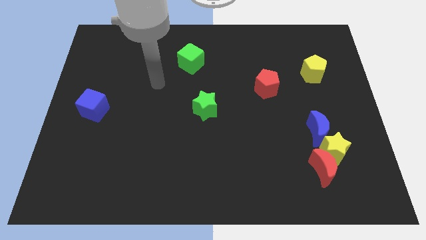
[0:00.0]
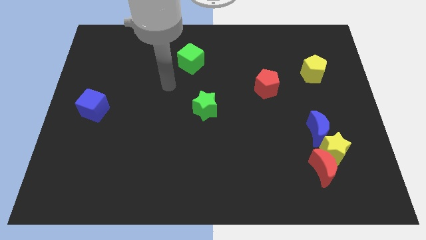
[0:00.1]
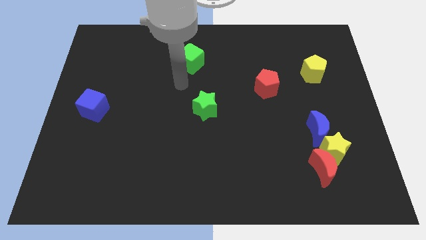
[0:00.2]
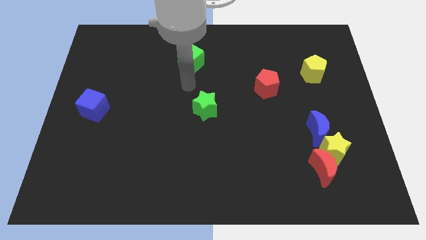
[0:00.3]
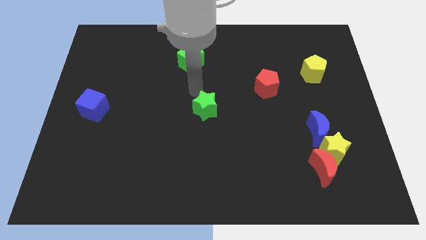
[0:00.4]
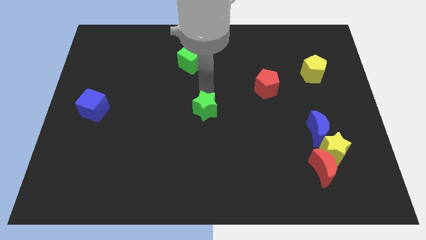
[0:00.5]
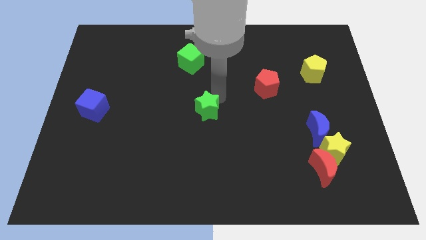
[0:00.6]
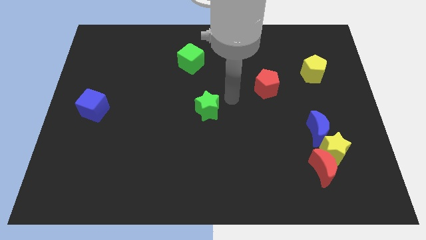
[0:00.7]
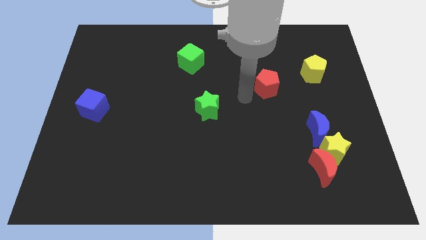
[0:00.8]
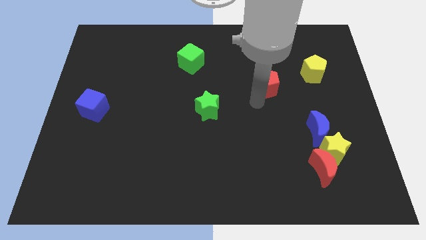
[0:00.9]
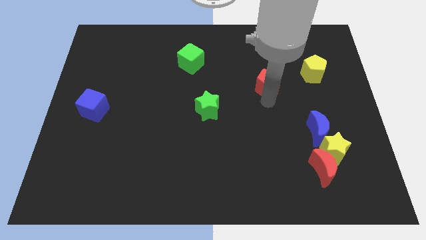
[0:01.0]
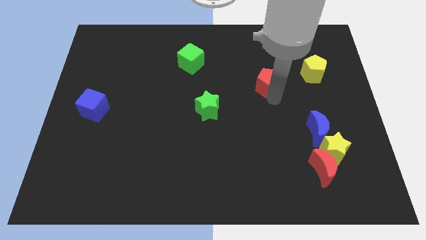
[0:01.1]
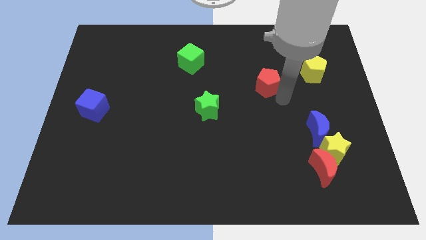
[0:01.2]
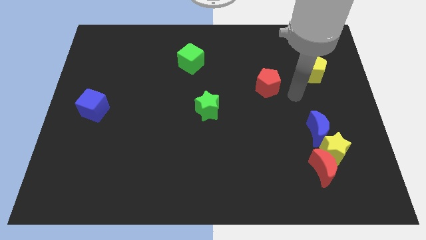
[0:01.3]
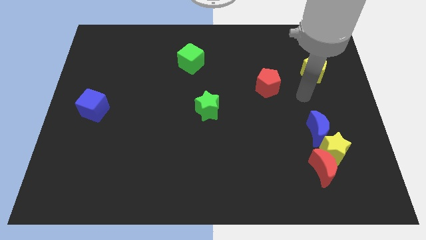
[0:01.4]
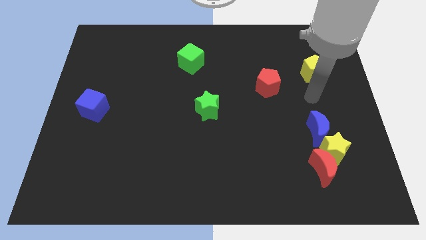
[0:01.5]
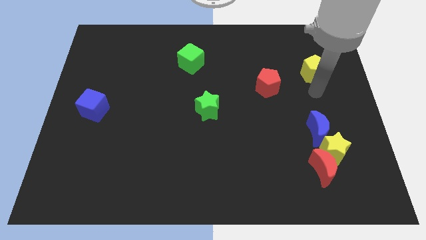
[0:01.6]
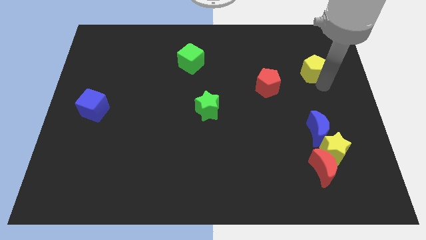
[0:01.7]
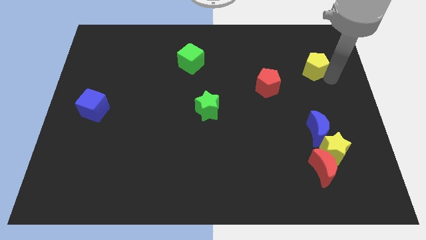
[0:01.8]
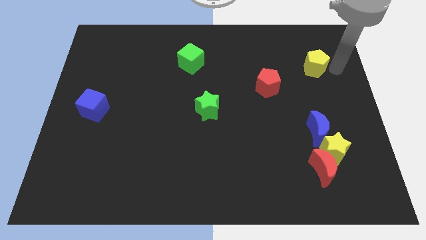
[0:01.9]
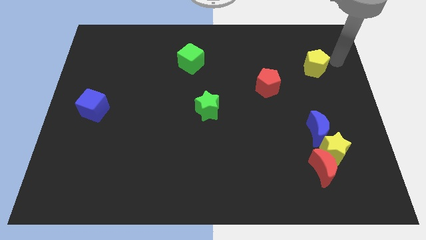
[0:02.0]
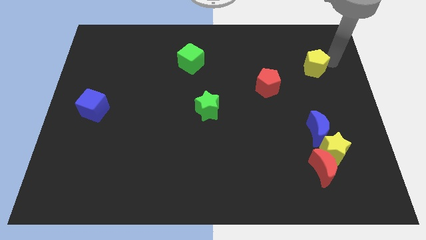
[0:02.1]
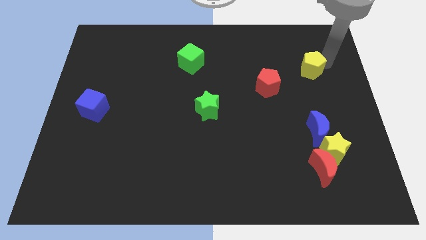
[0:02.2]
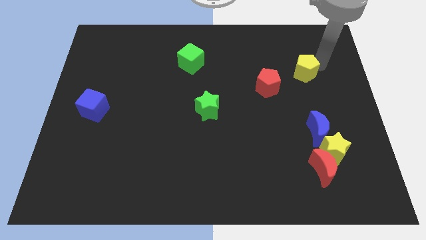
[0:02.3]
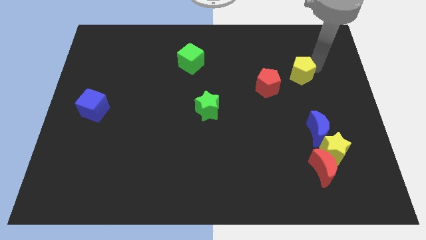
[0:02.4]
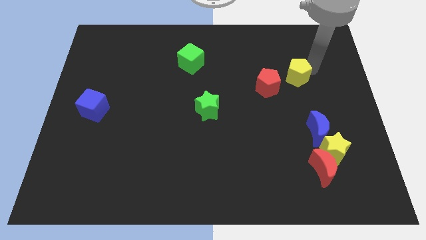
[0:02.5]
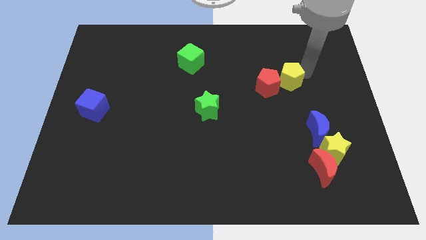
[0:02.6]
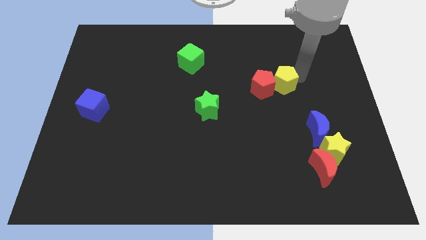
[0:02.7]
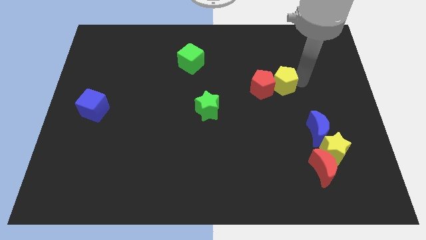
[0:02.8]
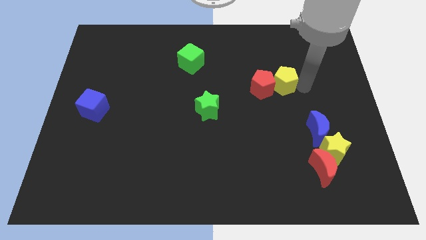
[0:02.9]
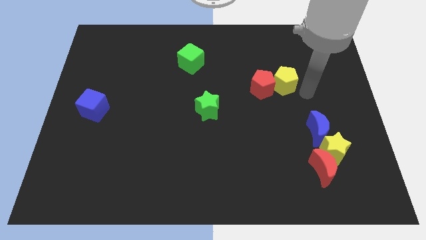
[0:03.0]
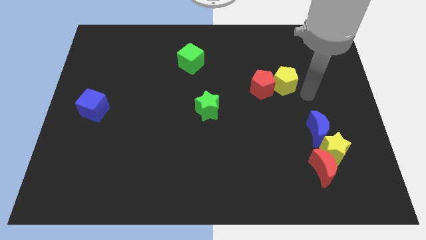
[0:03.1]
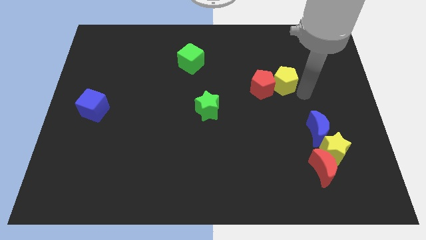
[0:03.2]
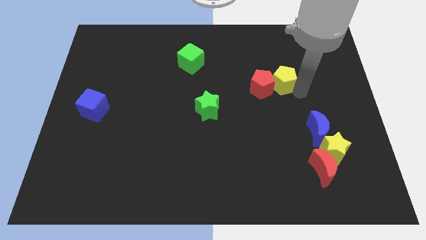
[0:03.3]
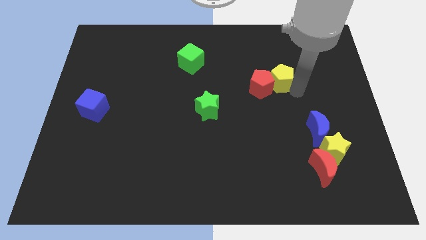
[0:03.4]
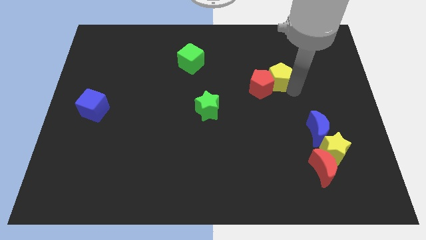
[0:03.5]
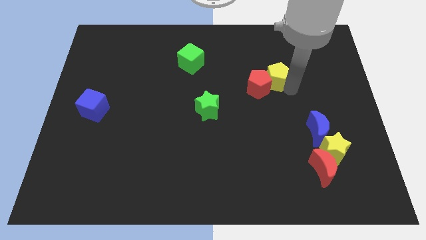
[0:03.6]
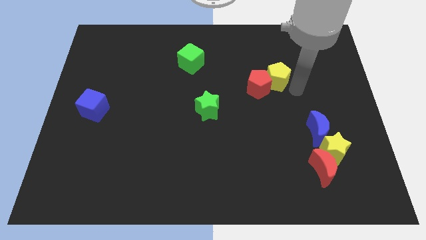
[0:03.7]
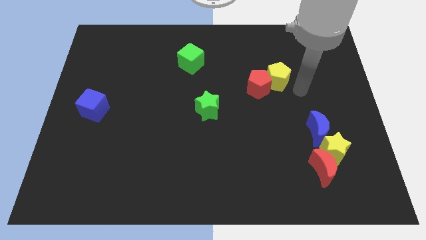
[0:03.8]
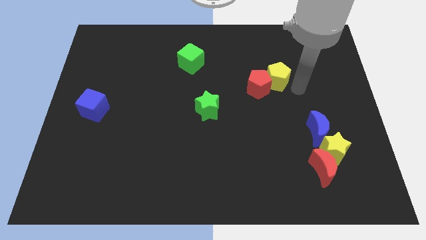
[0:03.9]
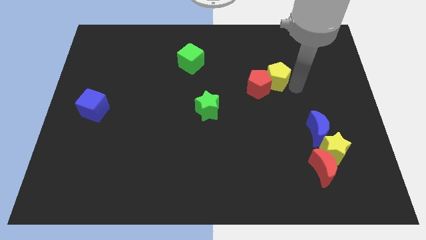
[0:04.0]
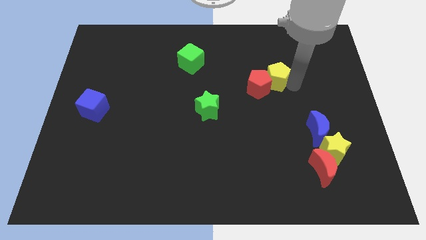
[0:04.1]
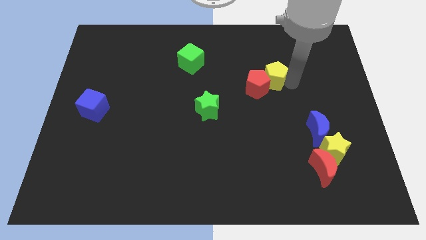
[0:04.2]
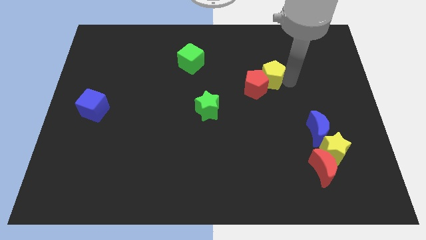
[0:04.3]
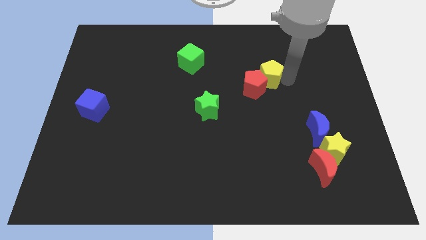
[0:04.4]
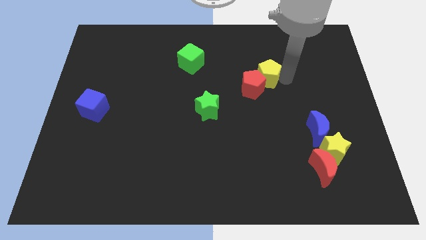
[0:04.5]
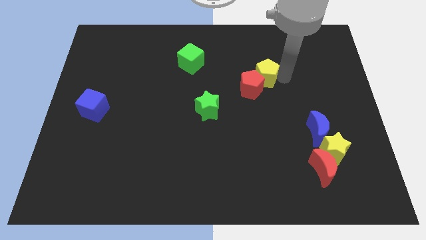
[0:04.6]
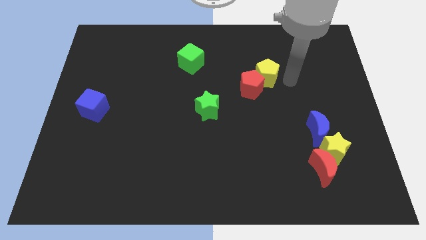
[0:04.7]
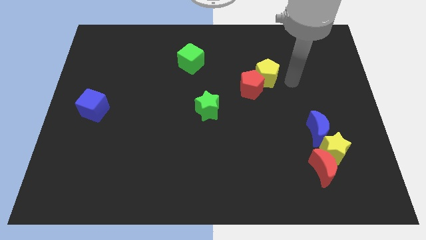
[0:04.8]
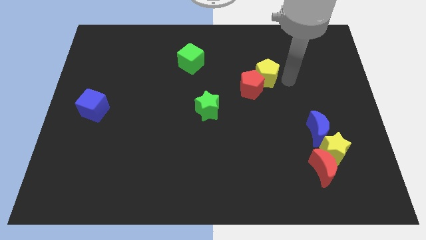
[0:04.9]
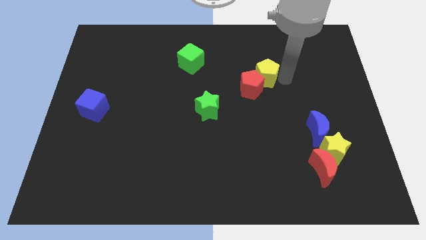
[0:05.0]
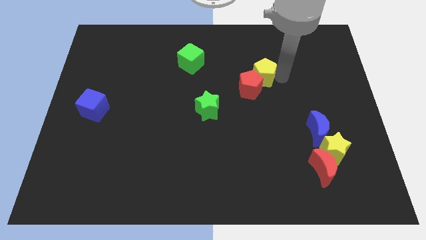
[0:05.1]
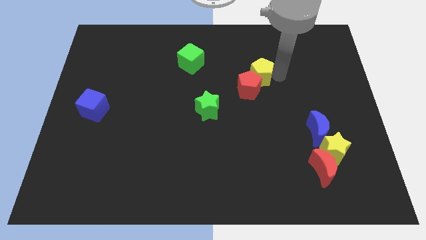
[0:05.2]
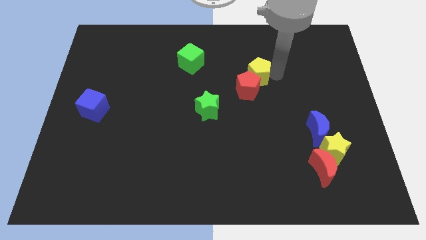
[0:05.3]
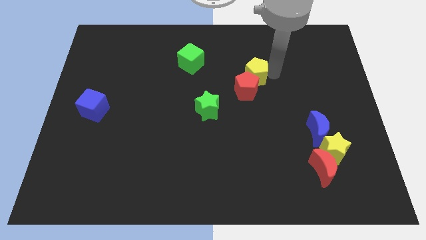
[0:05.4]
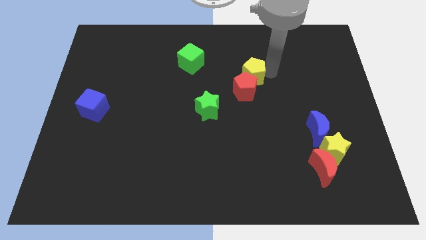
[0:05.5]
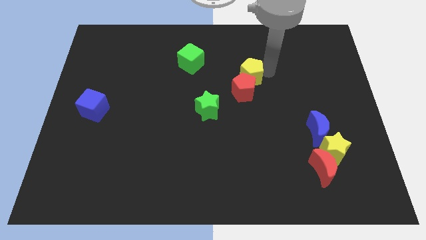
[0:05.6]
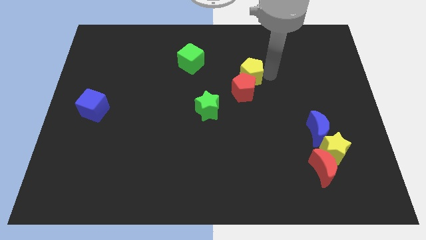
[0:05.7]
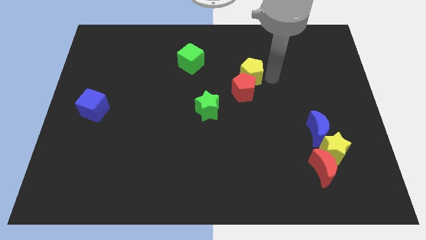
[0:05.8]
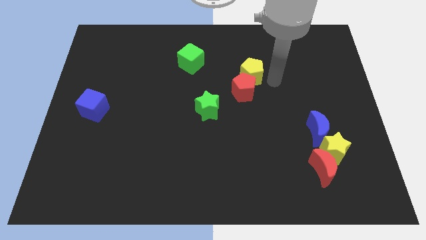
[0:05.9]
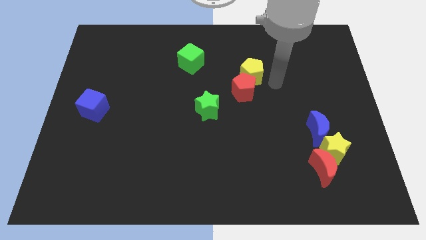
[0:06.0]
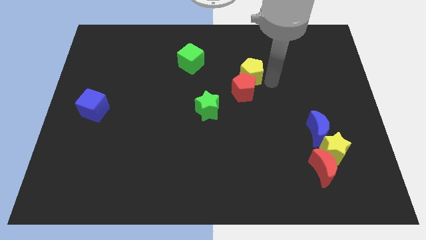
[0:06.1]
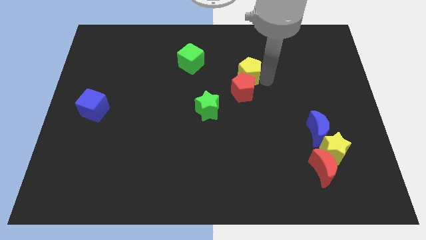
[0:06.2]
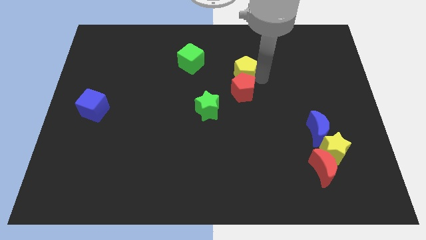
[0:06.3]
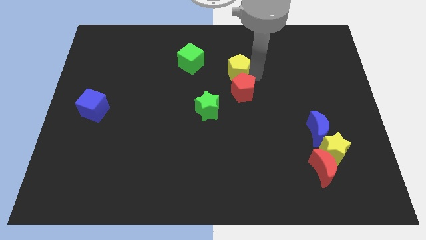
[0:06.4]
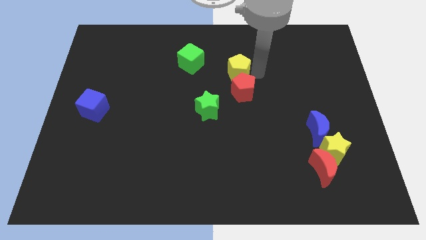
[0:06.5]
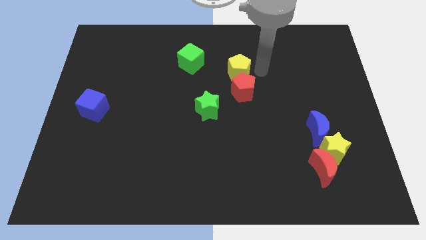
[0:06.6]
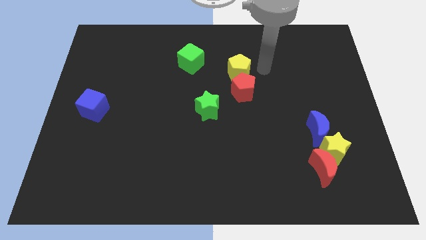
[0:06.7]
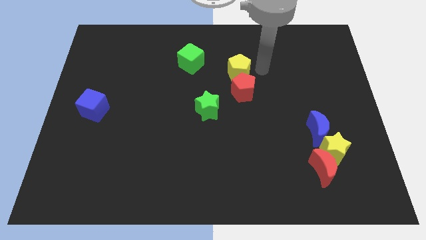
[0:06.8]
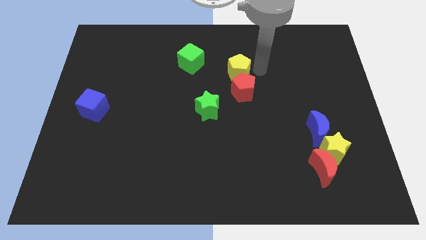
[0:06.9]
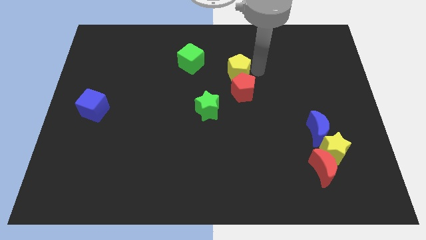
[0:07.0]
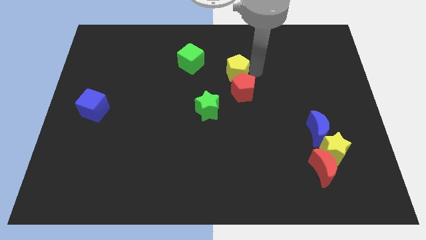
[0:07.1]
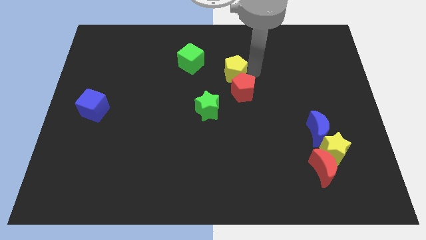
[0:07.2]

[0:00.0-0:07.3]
move the yellow pentagon to the left

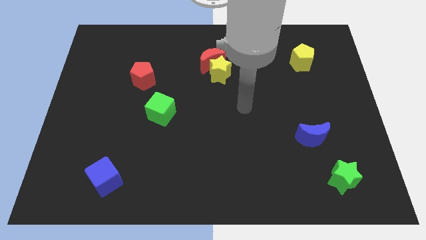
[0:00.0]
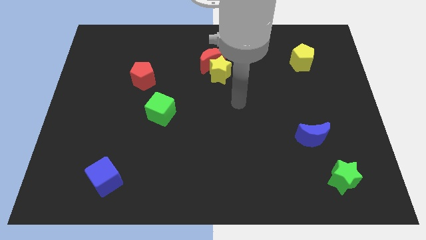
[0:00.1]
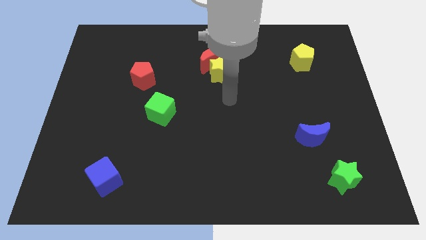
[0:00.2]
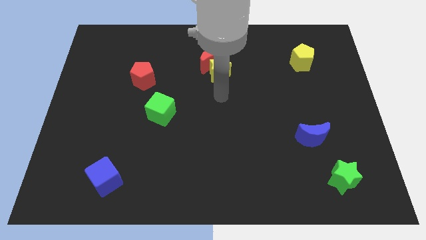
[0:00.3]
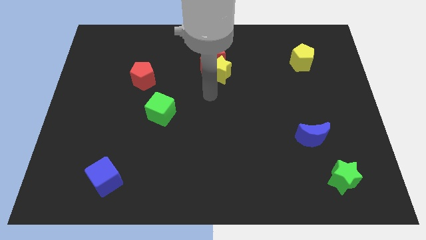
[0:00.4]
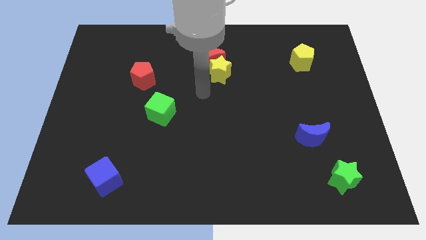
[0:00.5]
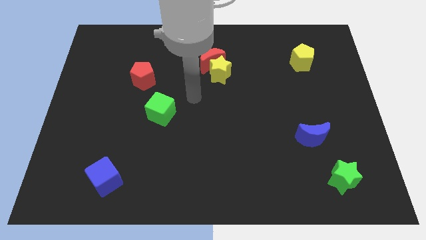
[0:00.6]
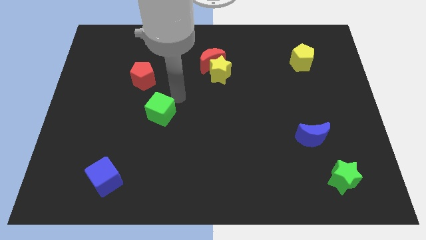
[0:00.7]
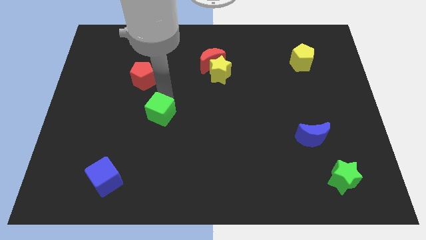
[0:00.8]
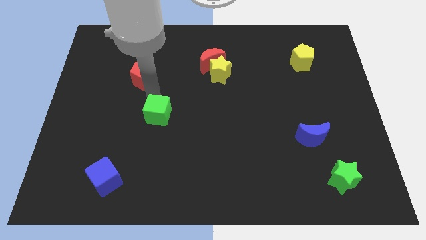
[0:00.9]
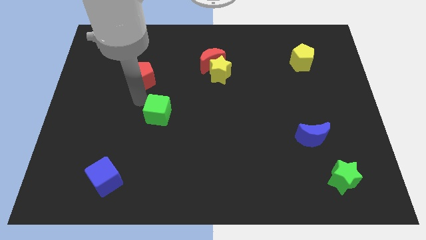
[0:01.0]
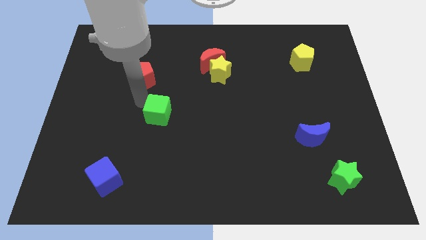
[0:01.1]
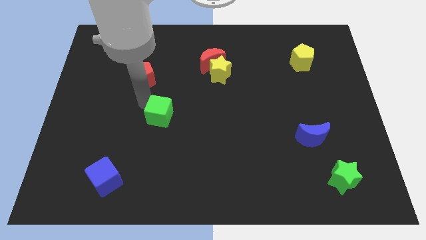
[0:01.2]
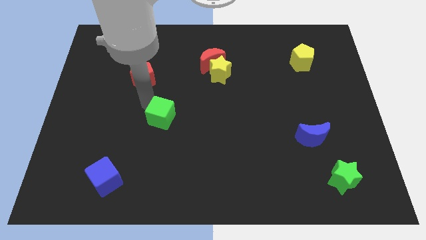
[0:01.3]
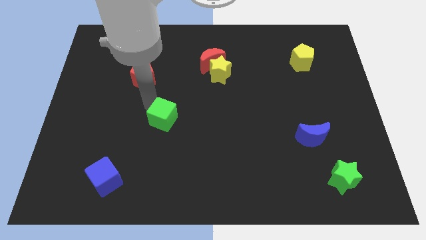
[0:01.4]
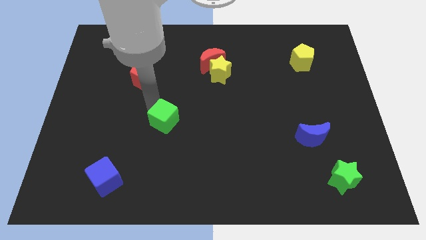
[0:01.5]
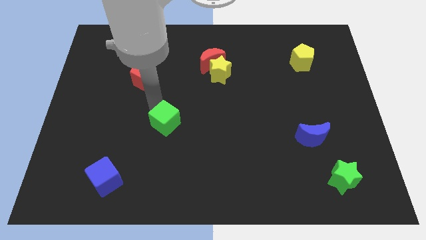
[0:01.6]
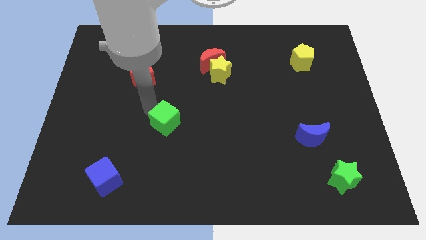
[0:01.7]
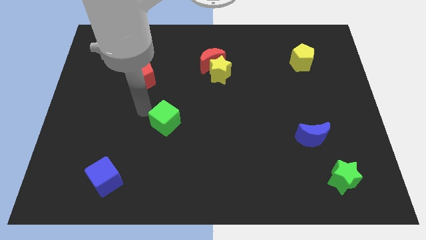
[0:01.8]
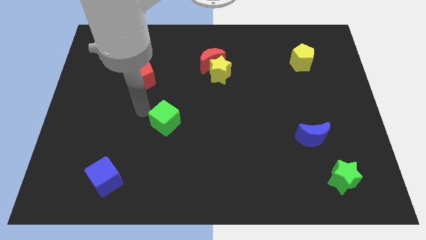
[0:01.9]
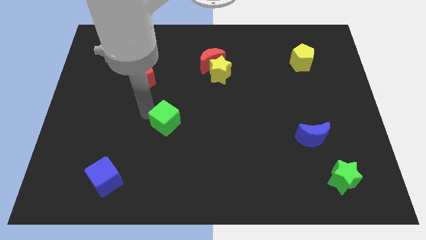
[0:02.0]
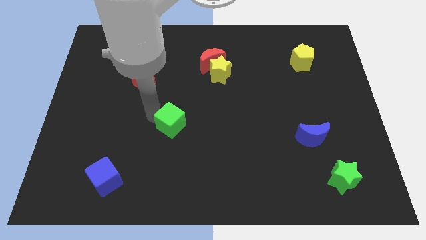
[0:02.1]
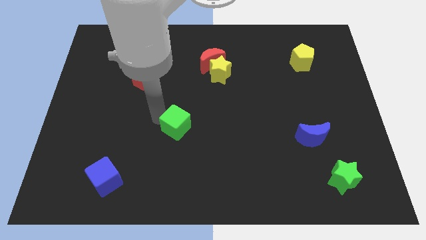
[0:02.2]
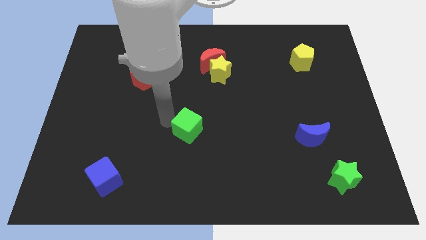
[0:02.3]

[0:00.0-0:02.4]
slightly slide the green cube down and to the right diagonally
